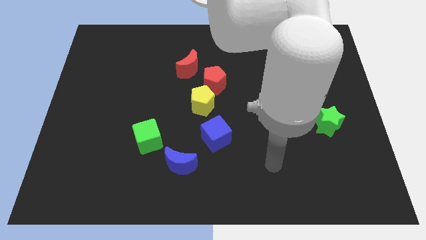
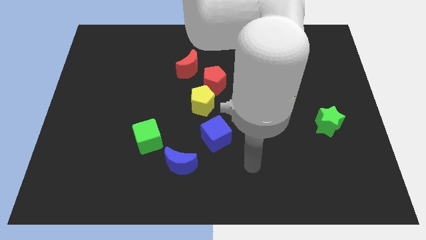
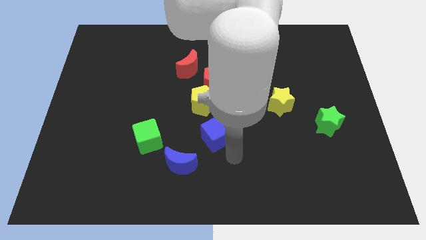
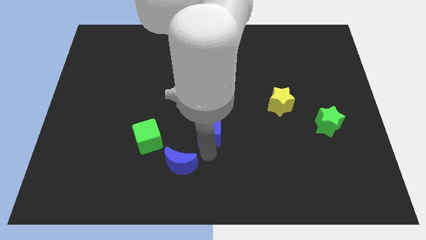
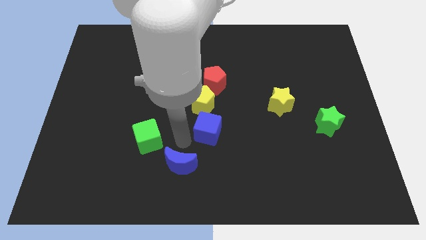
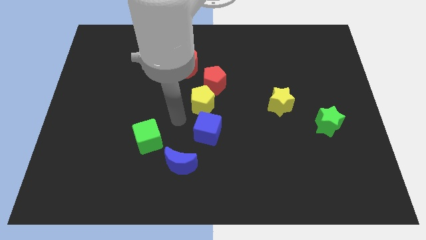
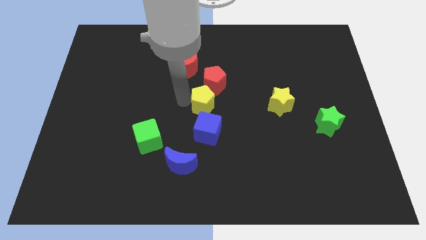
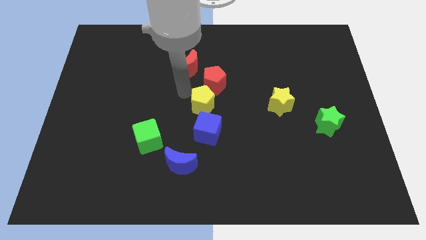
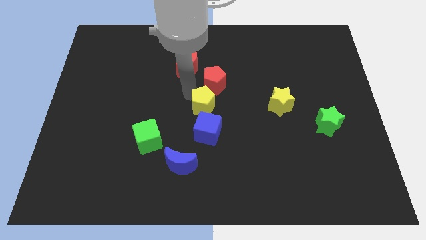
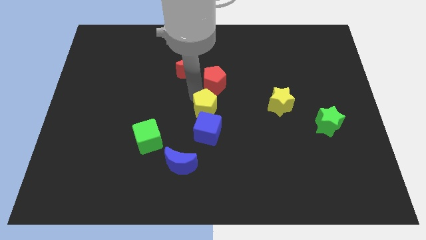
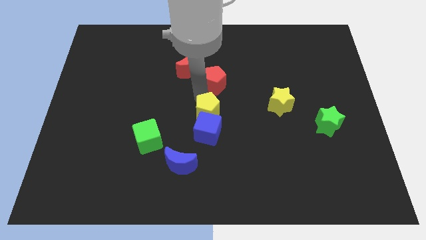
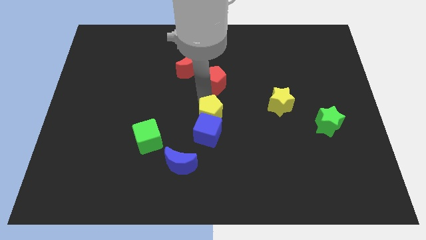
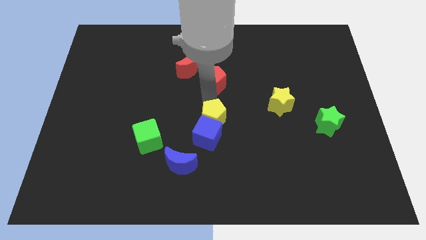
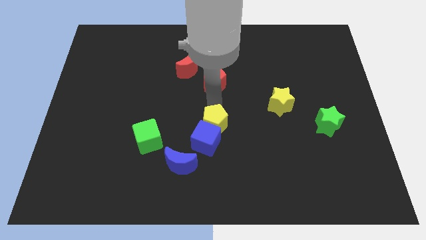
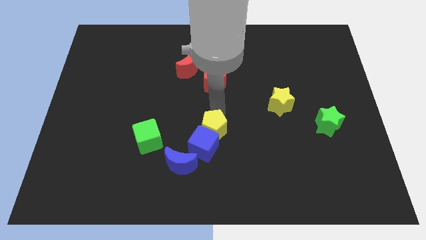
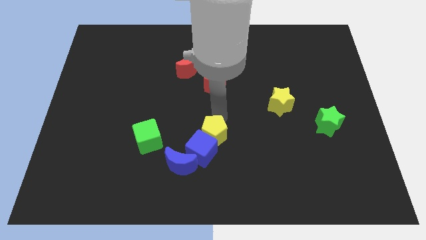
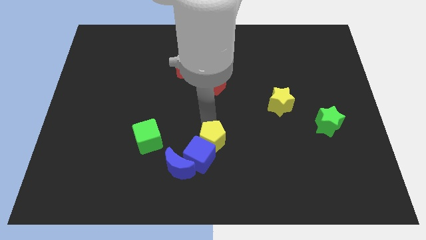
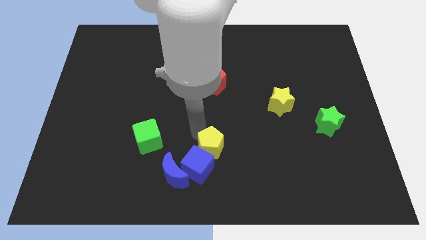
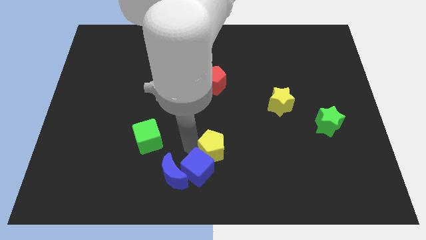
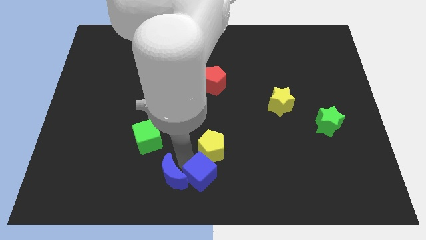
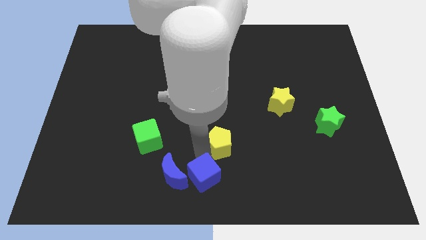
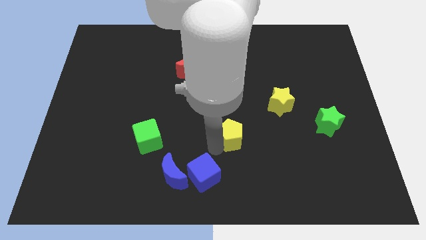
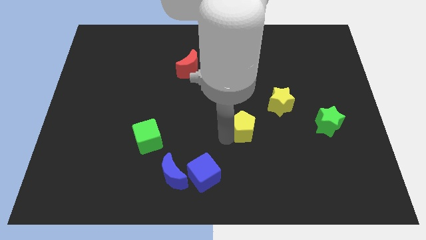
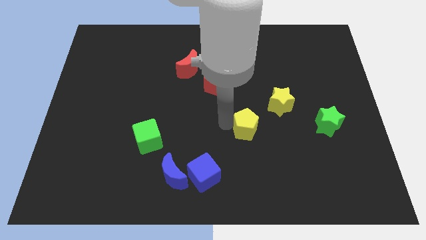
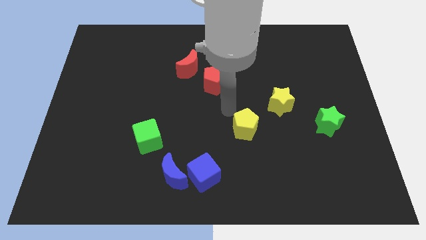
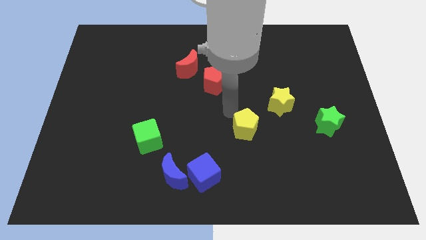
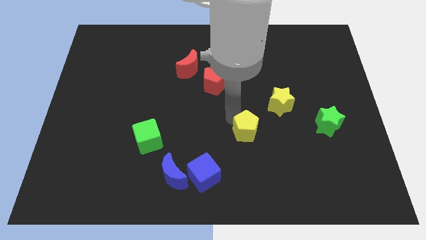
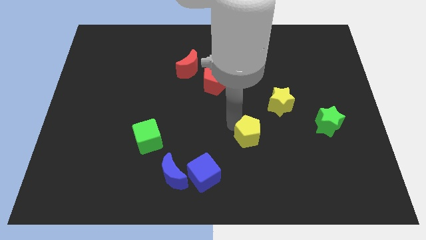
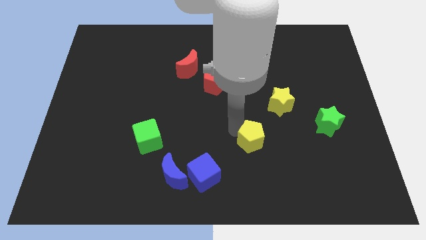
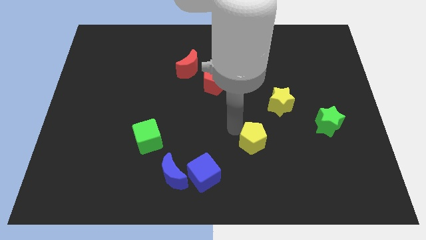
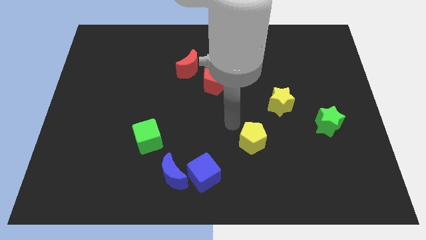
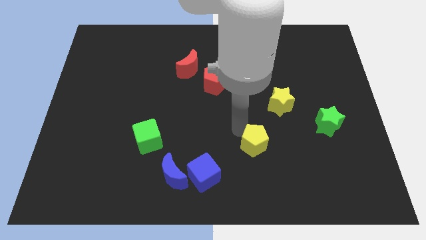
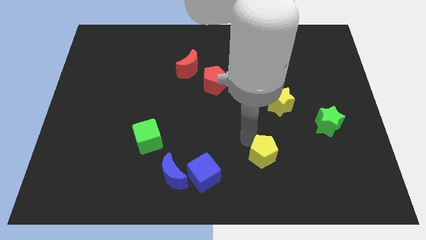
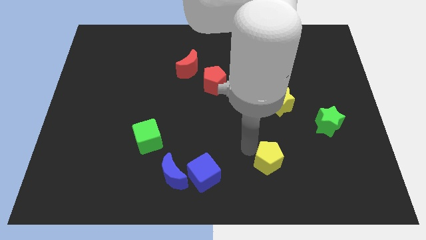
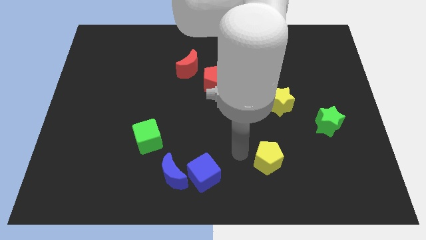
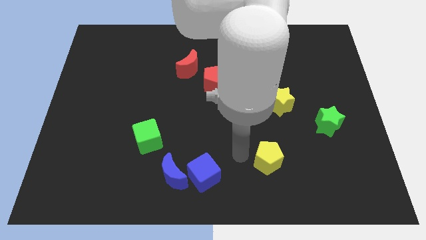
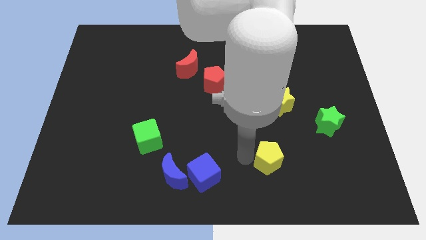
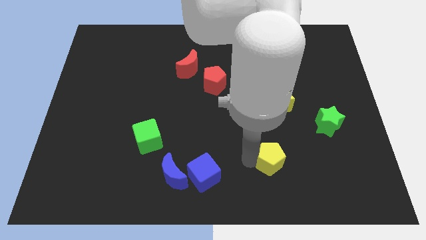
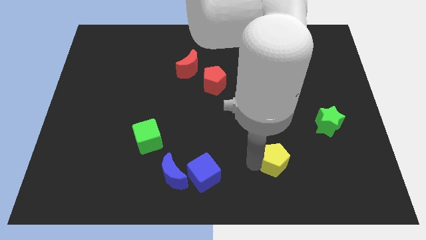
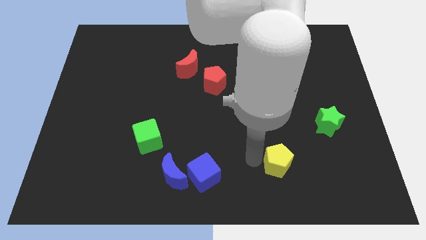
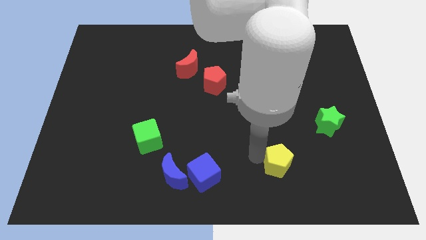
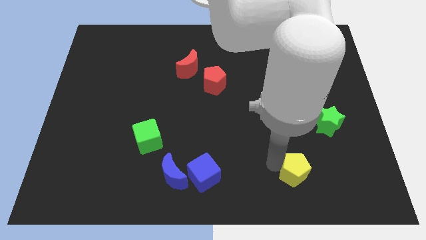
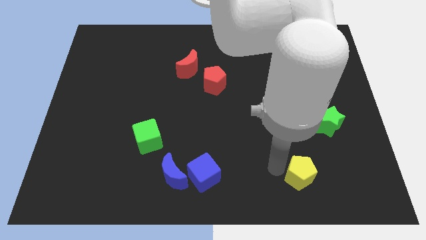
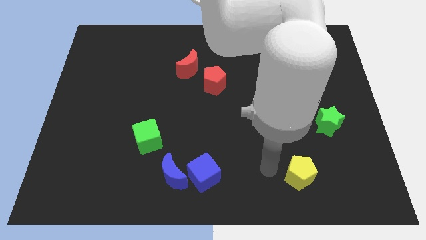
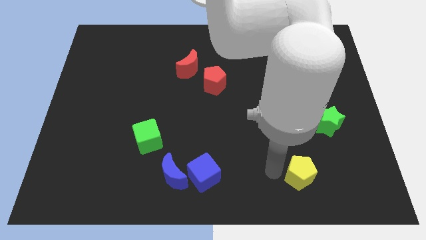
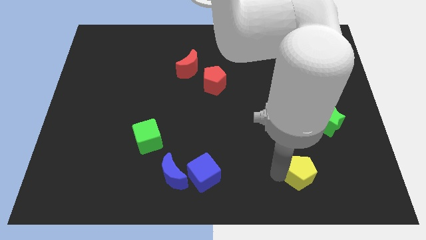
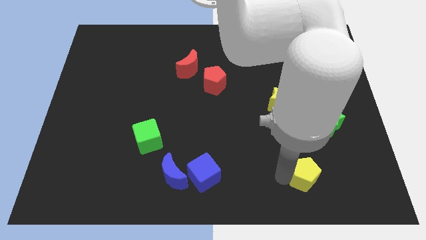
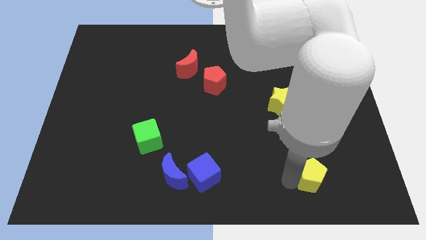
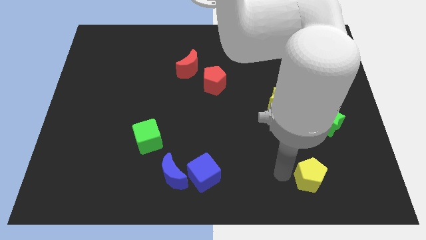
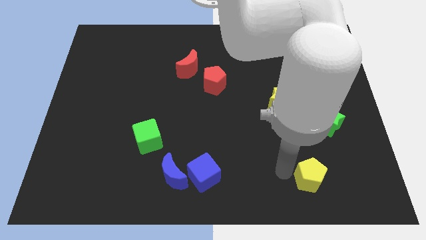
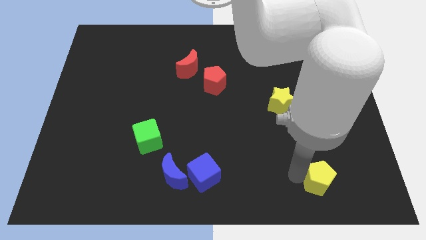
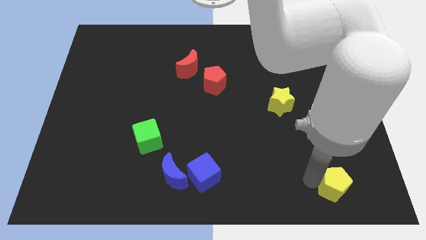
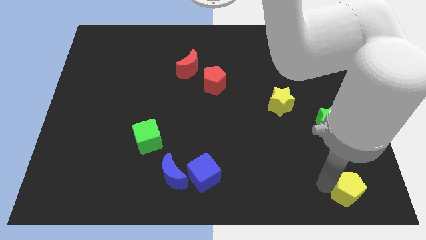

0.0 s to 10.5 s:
move the yellow pentagon to the bottom right of the board

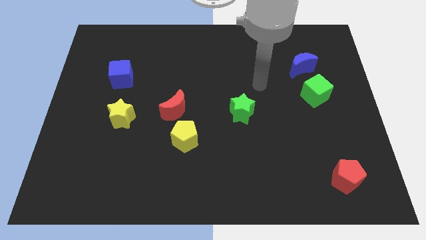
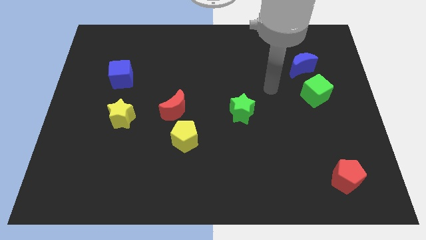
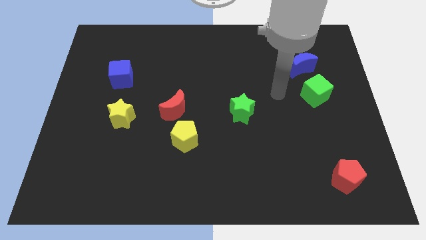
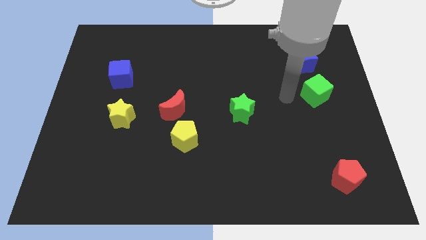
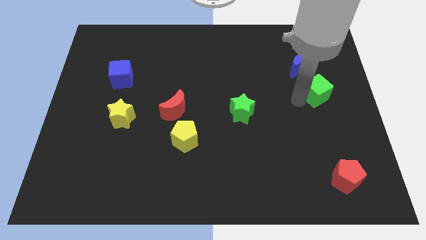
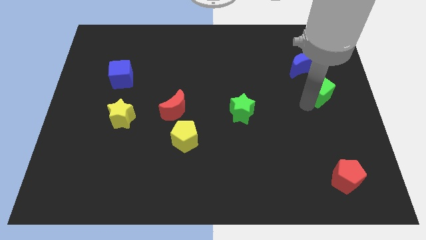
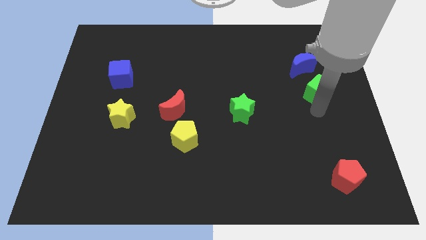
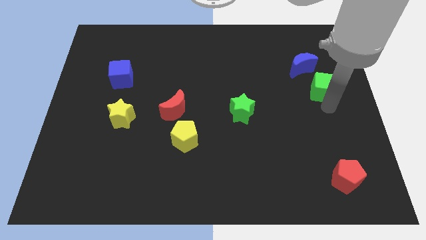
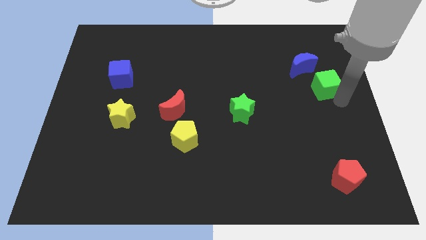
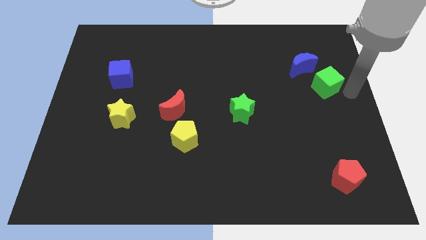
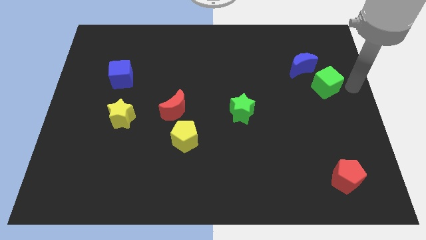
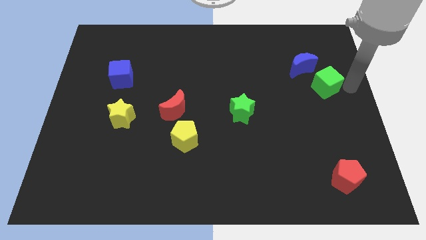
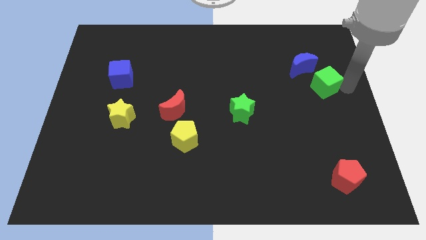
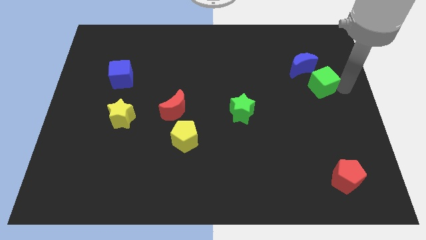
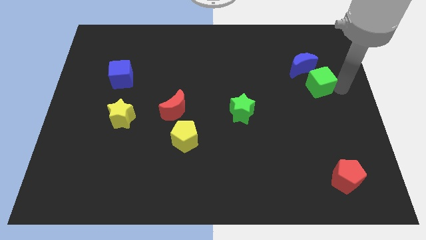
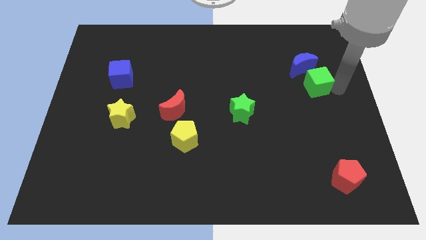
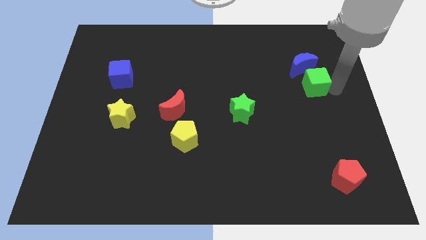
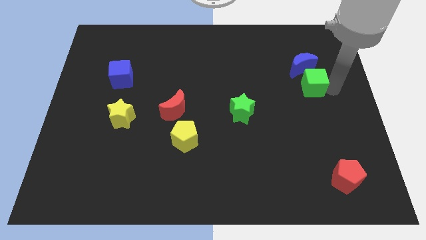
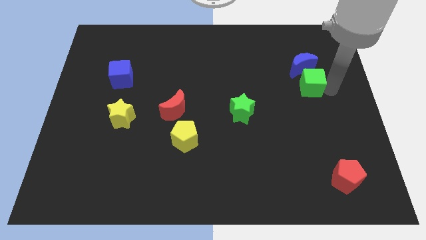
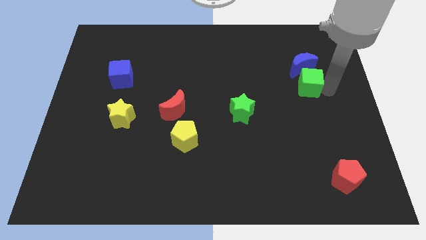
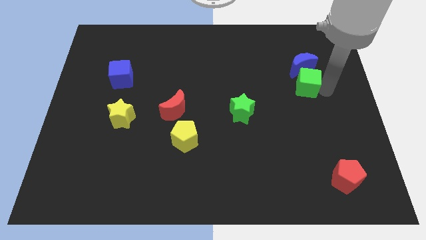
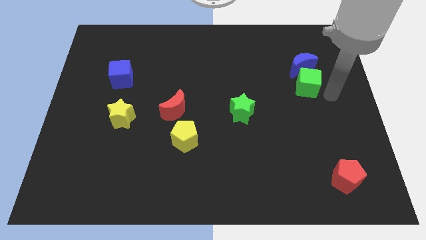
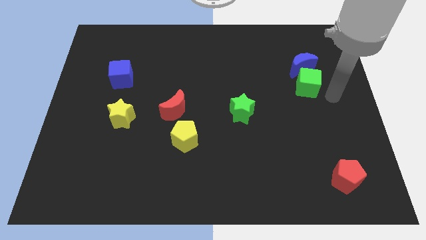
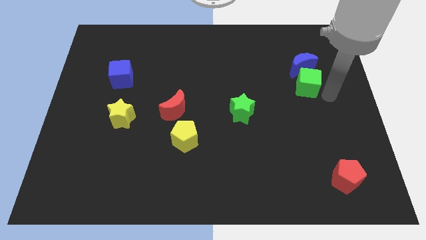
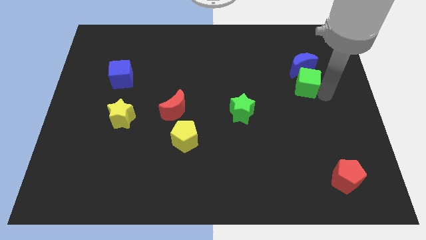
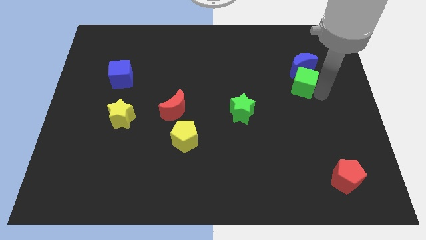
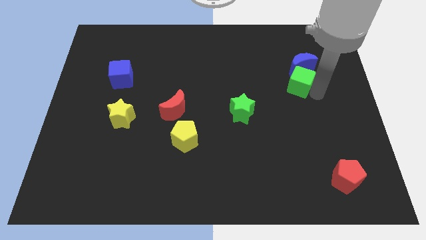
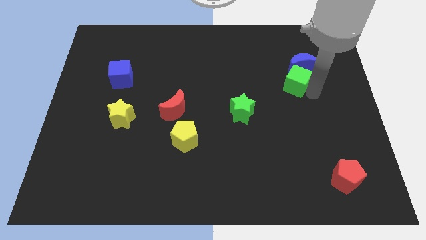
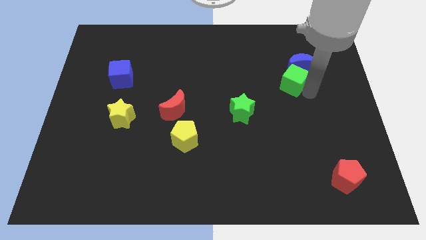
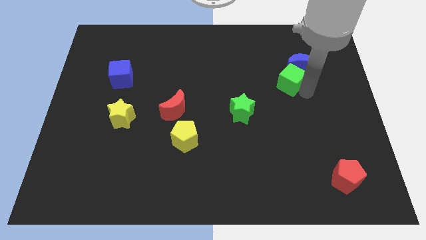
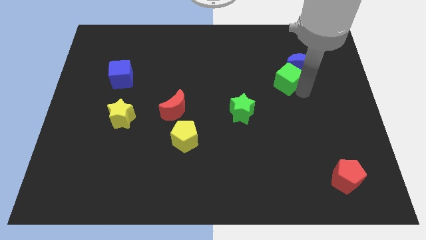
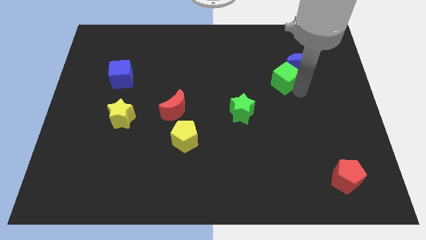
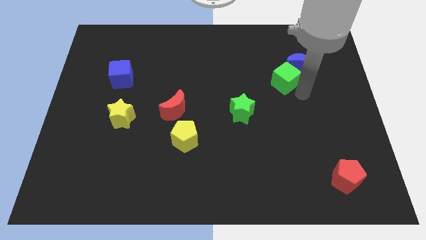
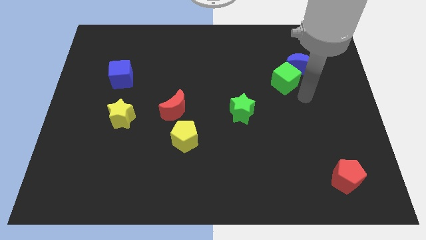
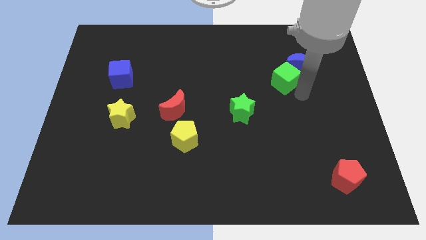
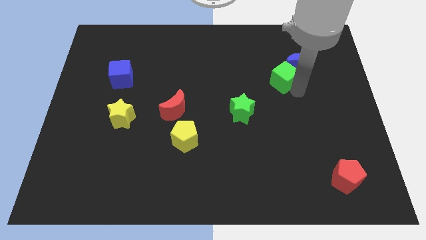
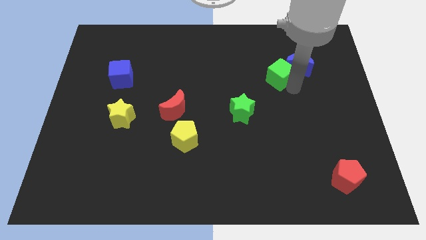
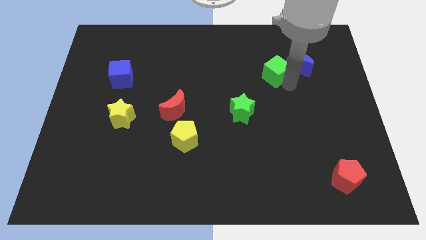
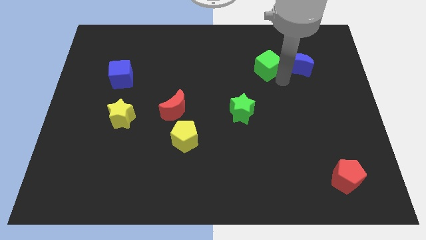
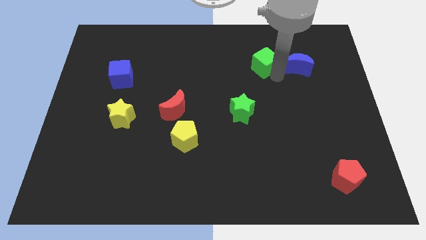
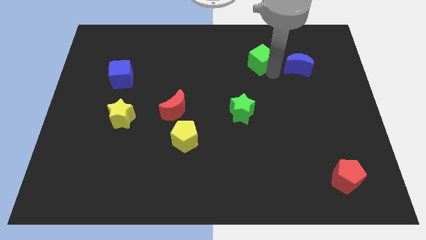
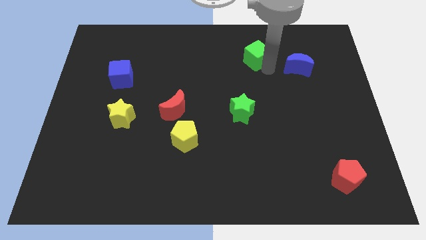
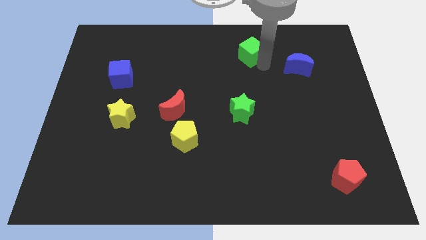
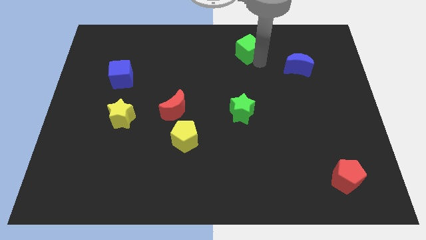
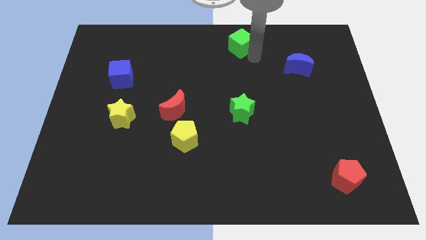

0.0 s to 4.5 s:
slide the green cube to the top side
